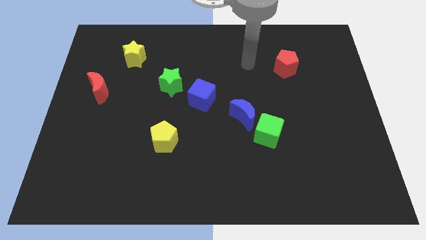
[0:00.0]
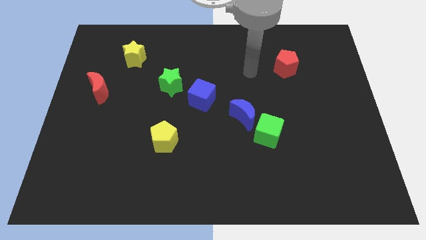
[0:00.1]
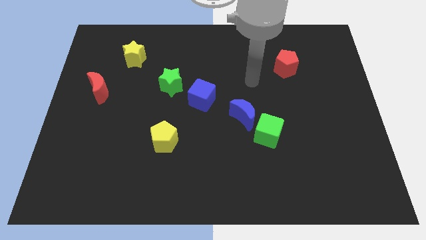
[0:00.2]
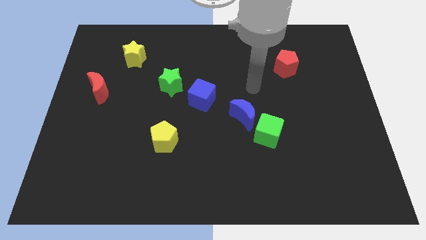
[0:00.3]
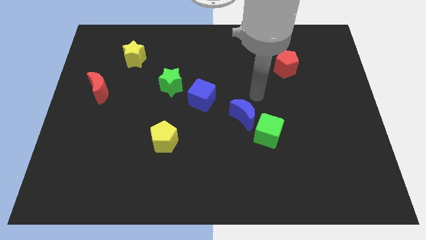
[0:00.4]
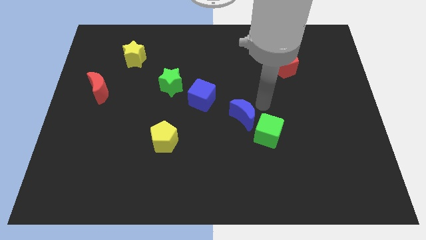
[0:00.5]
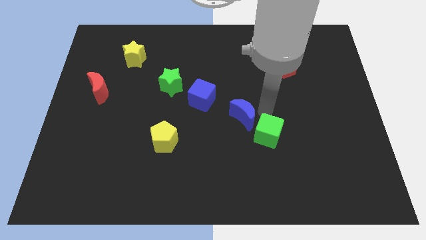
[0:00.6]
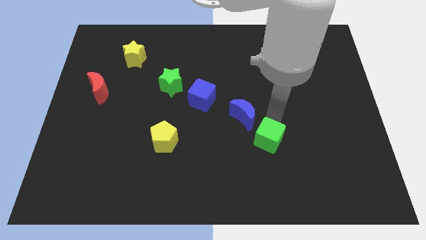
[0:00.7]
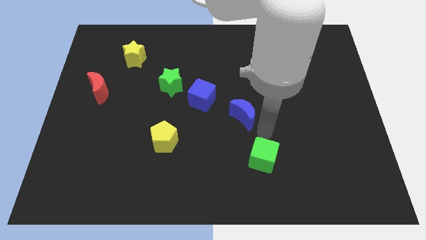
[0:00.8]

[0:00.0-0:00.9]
separate the blue moon from the green cube

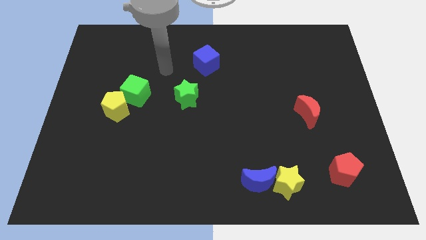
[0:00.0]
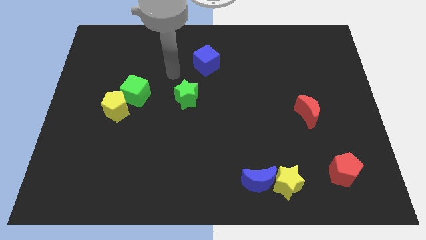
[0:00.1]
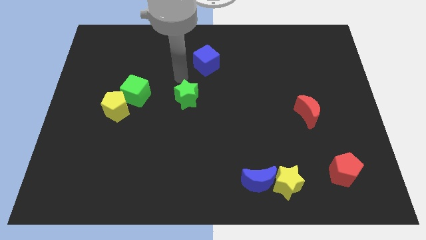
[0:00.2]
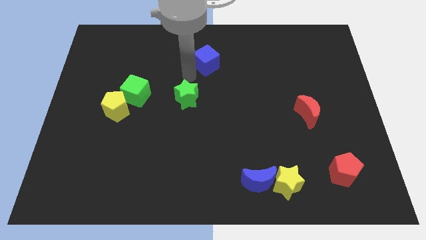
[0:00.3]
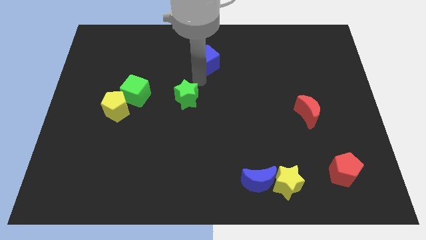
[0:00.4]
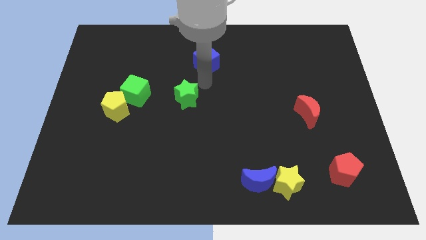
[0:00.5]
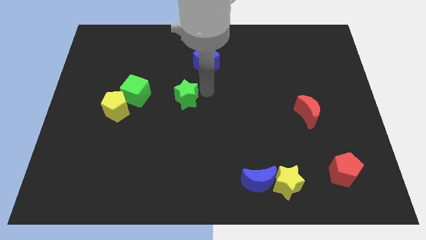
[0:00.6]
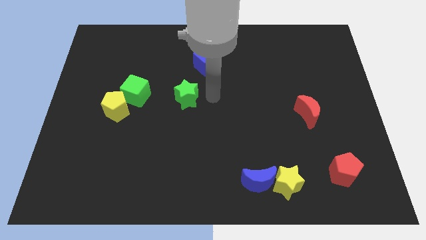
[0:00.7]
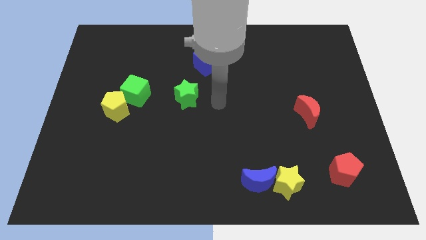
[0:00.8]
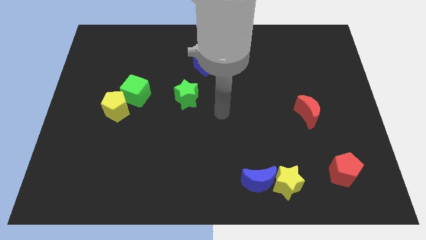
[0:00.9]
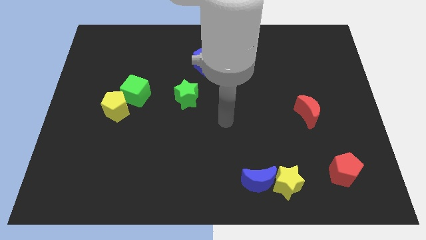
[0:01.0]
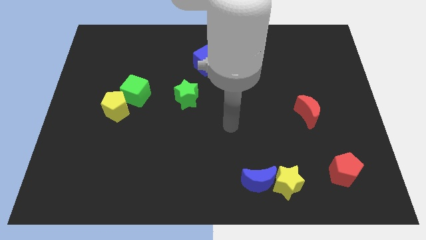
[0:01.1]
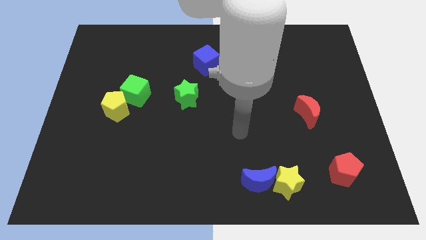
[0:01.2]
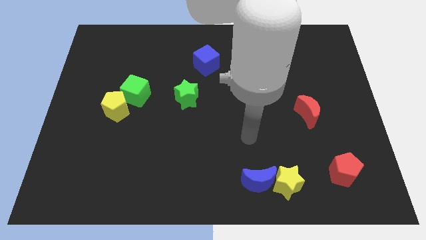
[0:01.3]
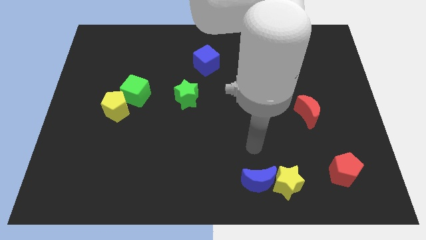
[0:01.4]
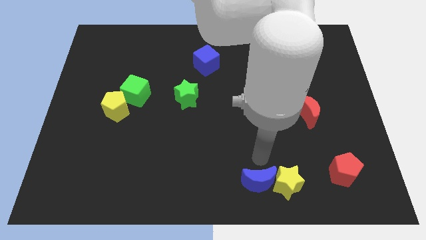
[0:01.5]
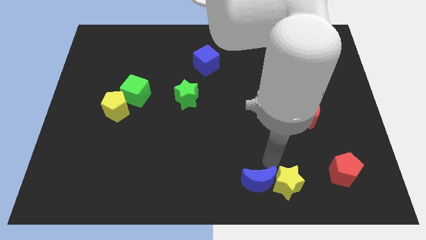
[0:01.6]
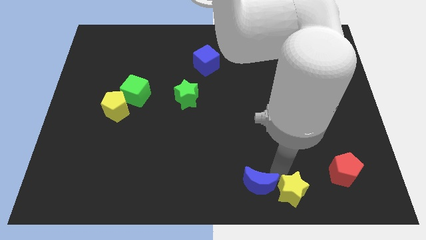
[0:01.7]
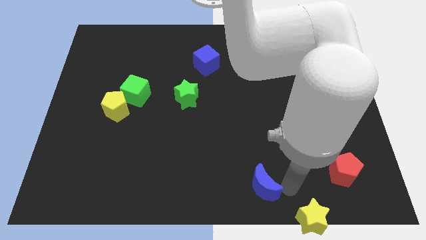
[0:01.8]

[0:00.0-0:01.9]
separate the blue moon from the yellow star

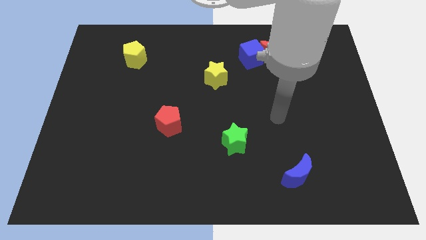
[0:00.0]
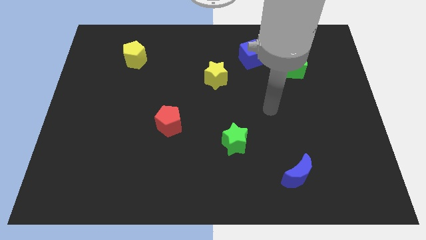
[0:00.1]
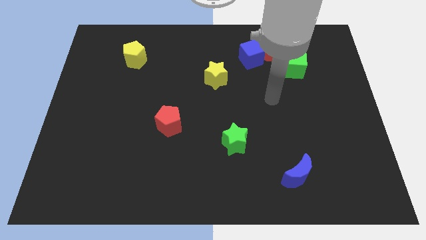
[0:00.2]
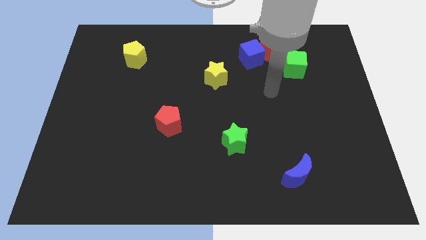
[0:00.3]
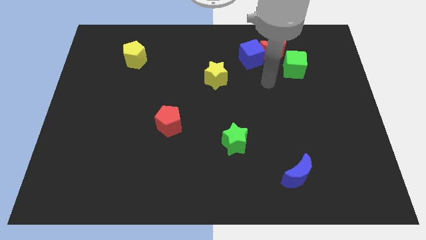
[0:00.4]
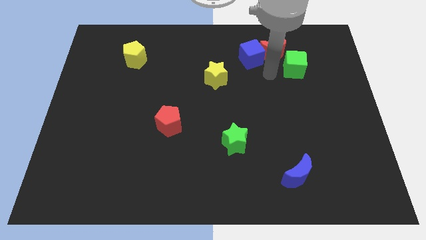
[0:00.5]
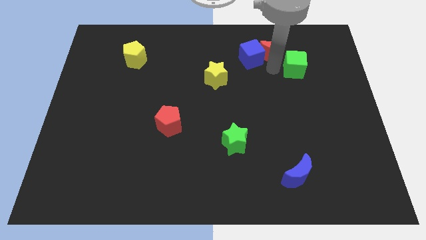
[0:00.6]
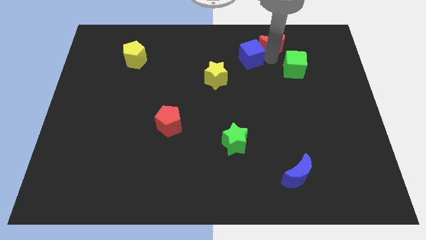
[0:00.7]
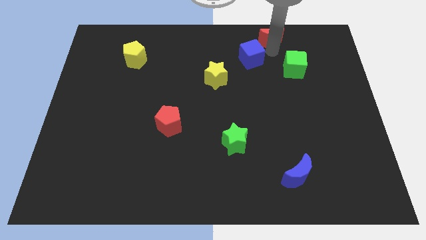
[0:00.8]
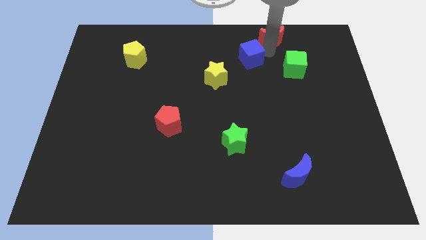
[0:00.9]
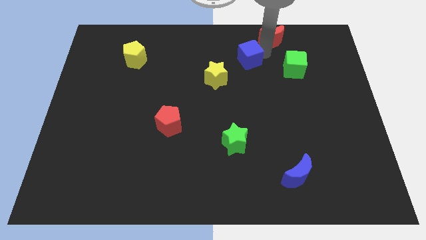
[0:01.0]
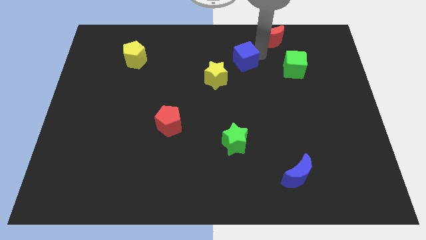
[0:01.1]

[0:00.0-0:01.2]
move the blue cube away from the red moon

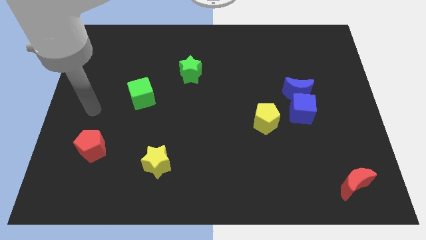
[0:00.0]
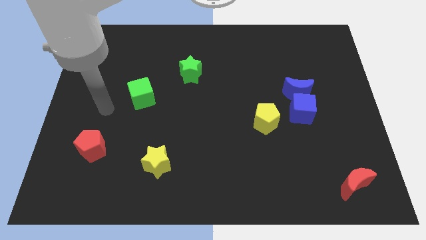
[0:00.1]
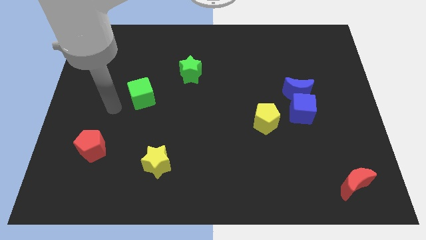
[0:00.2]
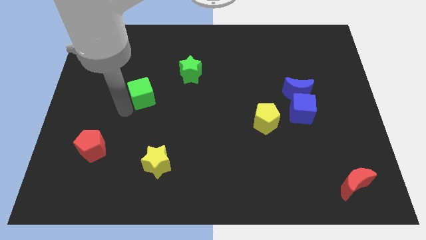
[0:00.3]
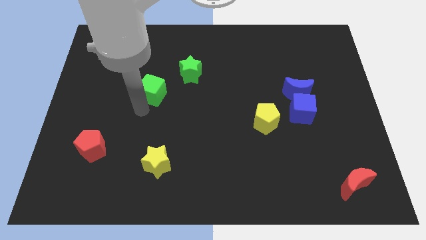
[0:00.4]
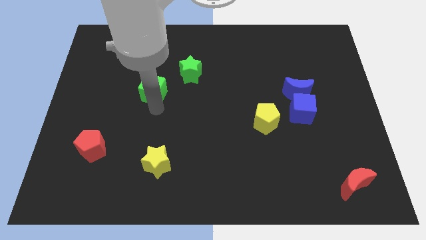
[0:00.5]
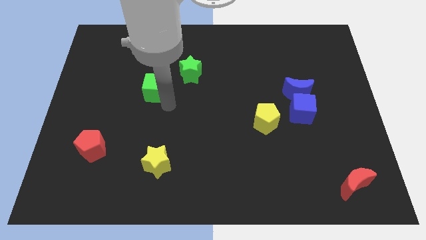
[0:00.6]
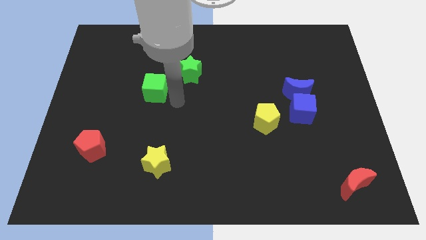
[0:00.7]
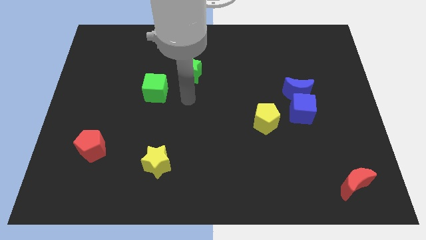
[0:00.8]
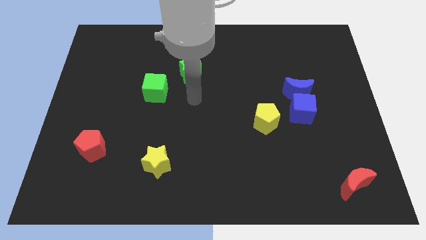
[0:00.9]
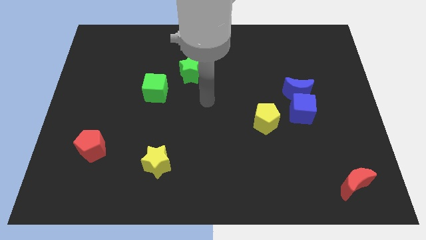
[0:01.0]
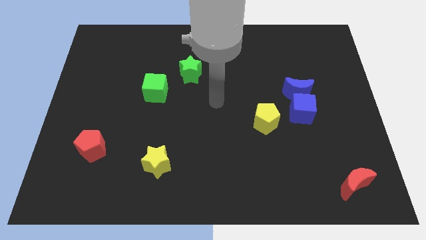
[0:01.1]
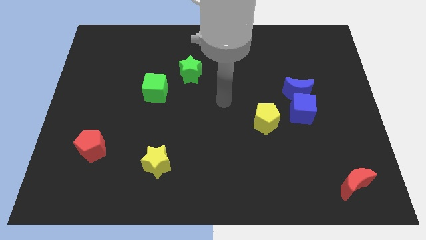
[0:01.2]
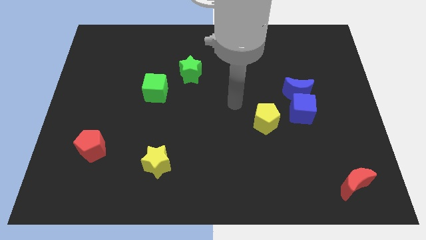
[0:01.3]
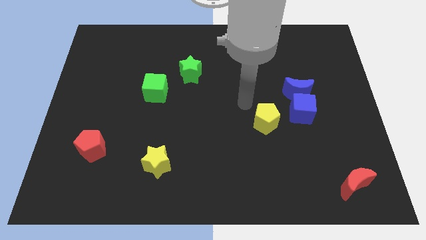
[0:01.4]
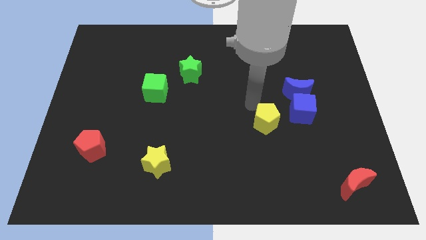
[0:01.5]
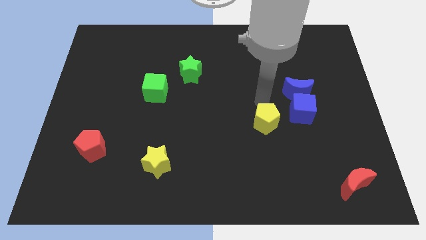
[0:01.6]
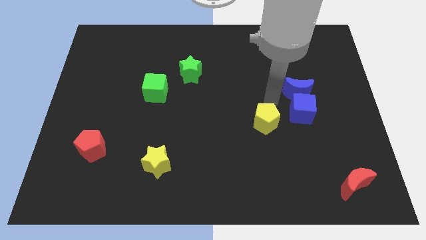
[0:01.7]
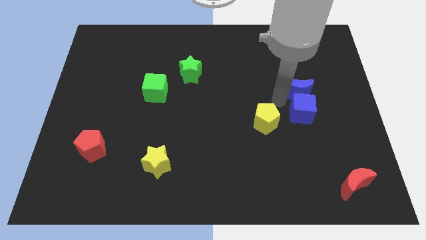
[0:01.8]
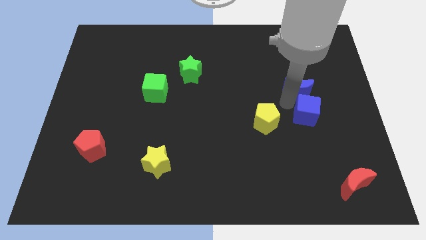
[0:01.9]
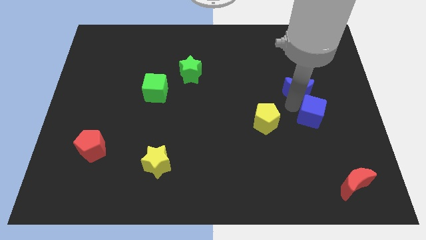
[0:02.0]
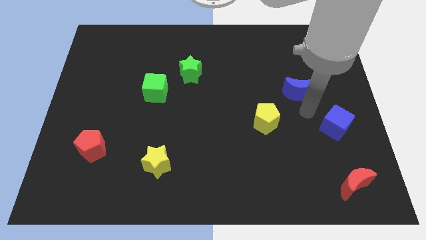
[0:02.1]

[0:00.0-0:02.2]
pull the blue moon apart from the blue cube

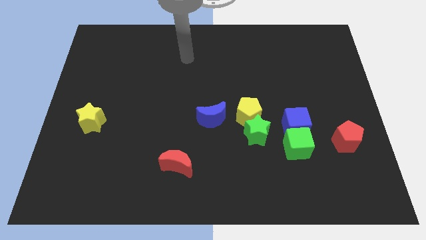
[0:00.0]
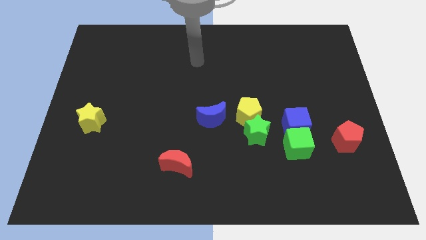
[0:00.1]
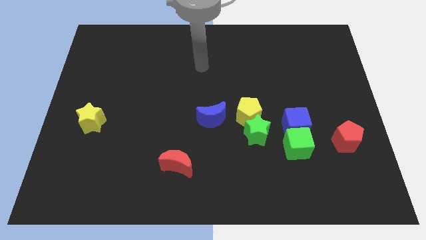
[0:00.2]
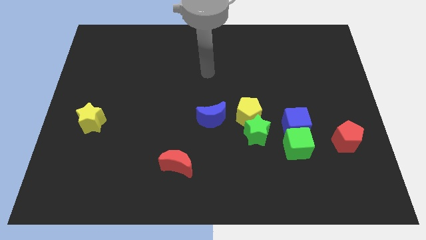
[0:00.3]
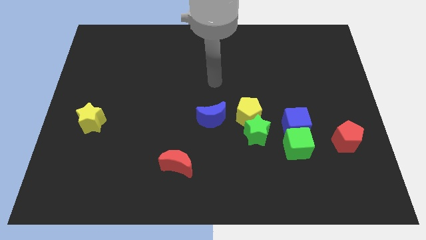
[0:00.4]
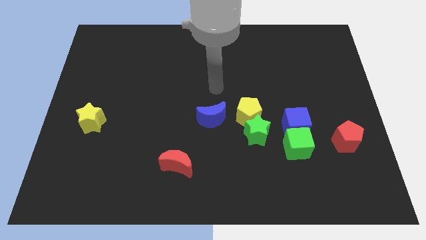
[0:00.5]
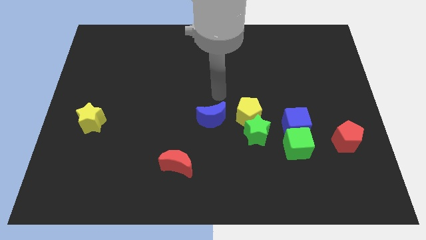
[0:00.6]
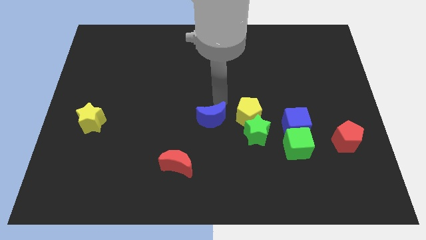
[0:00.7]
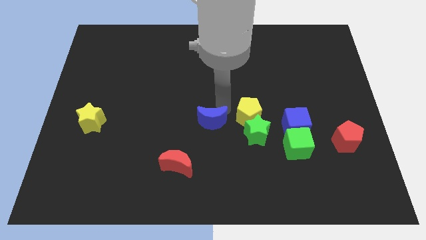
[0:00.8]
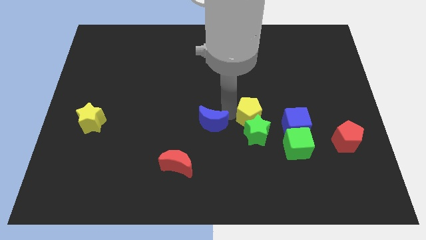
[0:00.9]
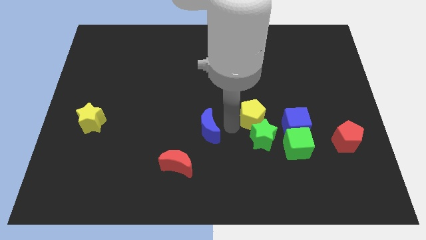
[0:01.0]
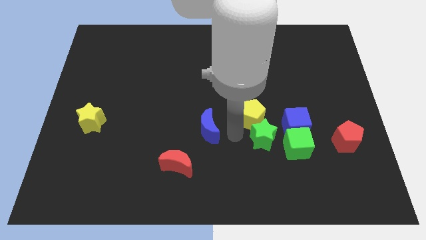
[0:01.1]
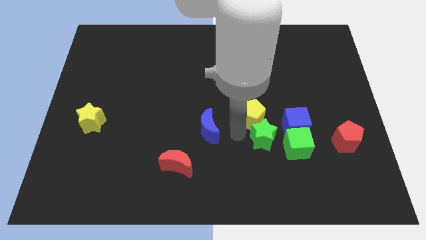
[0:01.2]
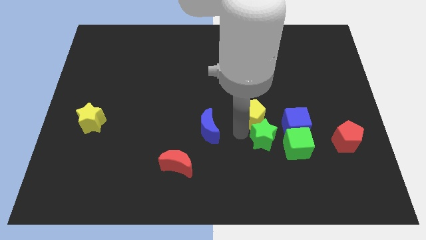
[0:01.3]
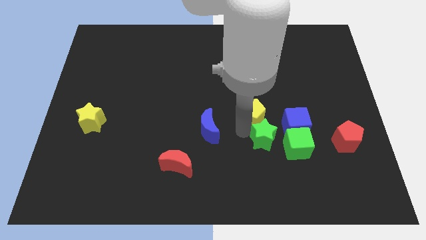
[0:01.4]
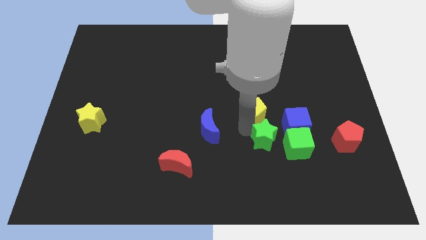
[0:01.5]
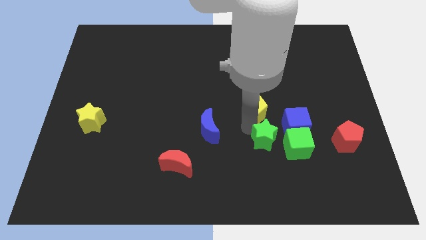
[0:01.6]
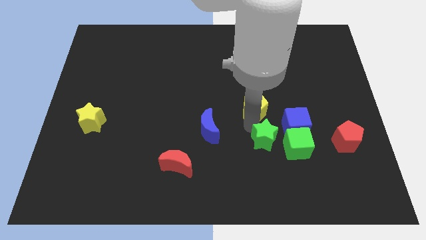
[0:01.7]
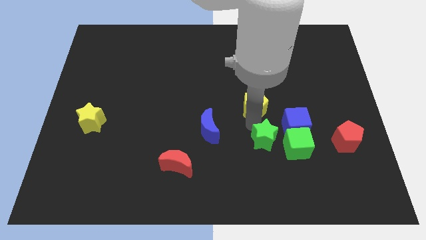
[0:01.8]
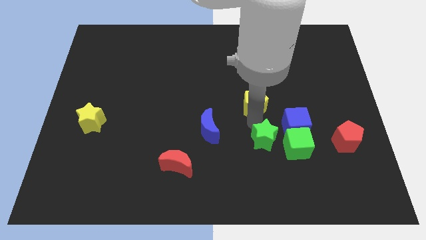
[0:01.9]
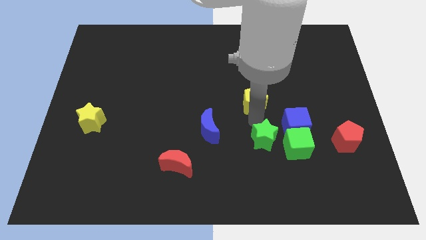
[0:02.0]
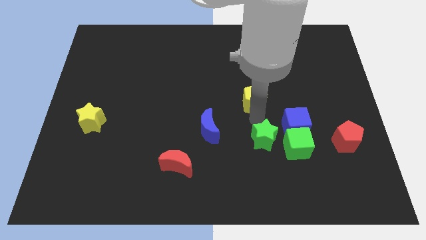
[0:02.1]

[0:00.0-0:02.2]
separate the yellow pentagon from the green star and blue moon

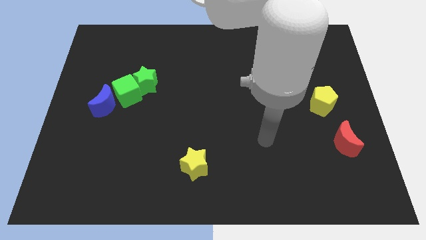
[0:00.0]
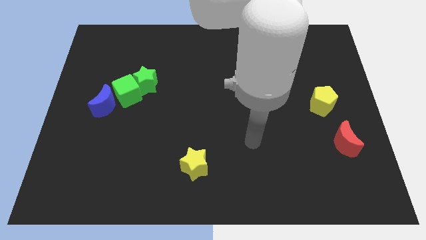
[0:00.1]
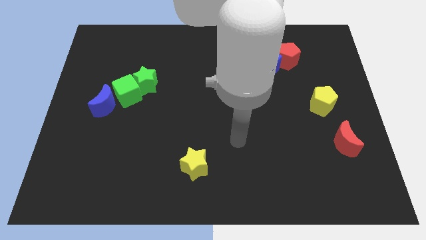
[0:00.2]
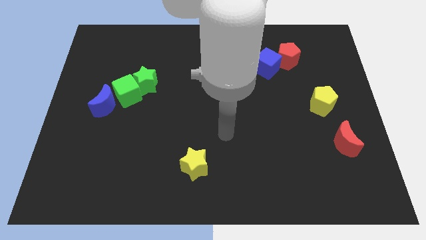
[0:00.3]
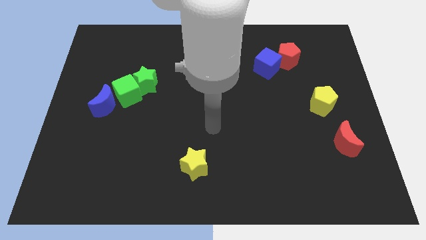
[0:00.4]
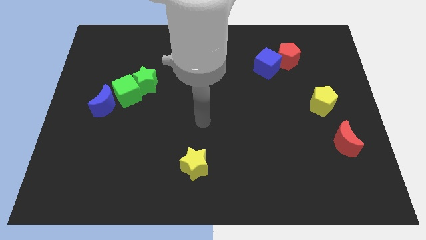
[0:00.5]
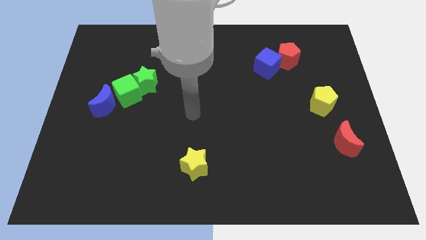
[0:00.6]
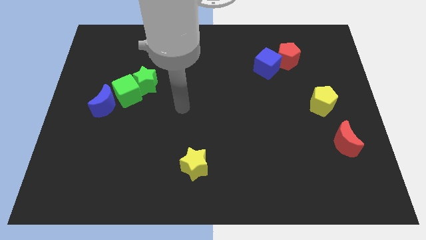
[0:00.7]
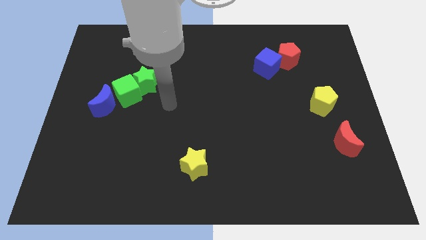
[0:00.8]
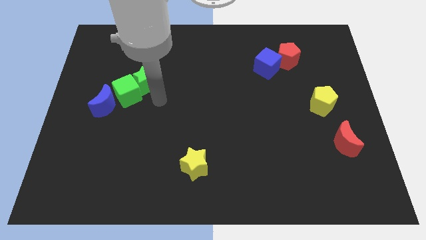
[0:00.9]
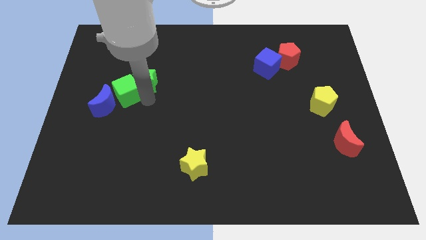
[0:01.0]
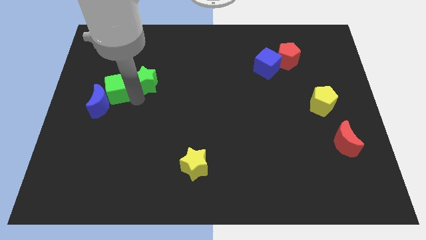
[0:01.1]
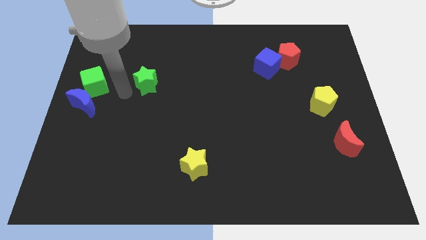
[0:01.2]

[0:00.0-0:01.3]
separate the green star from the green cube
